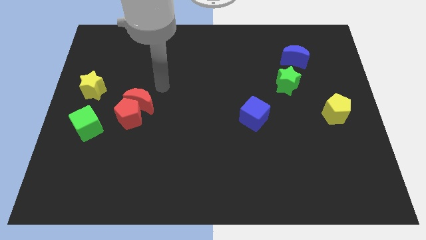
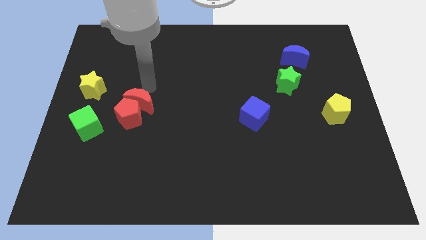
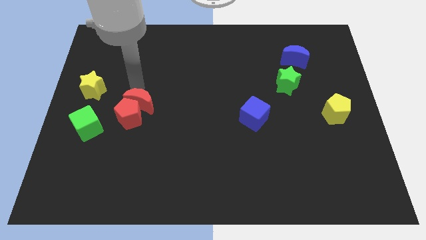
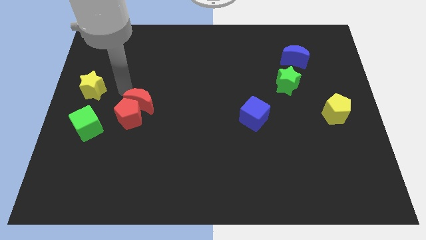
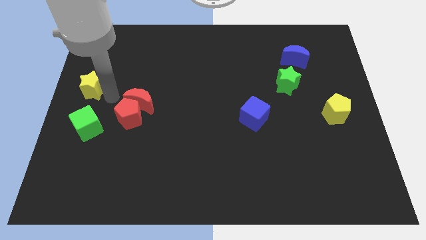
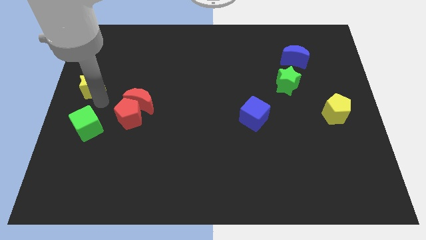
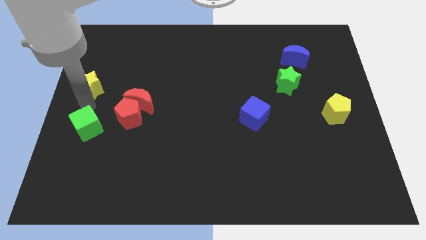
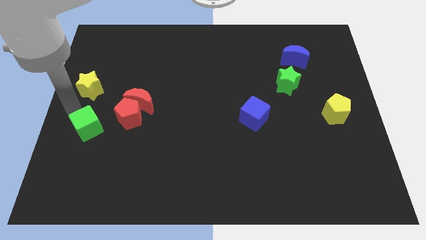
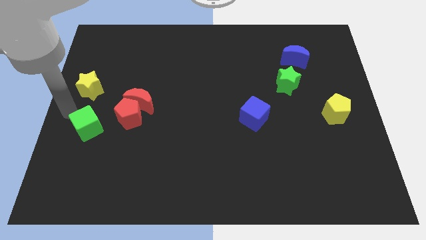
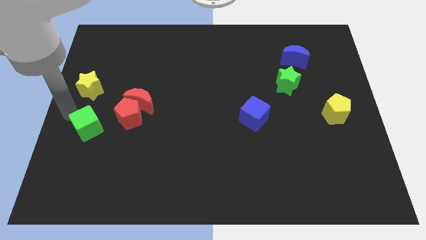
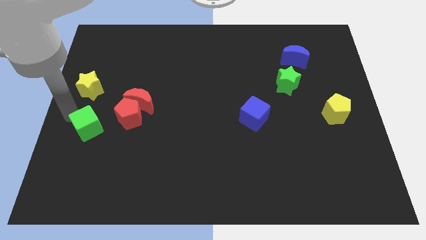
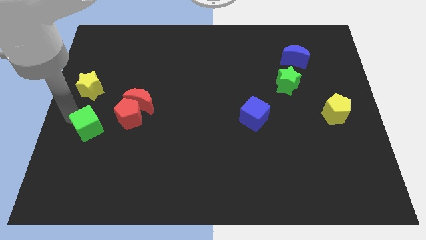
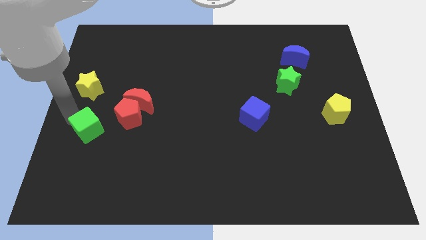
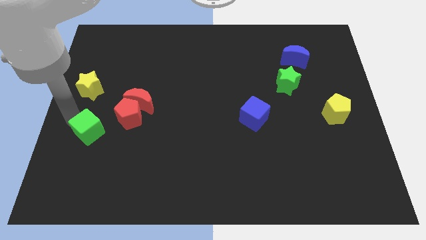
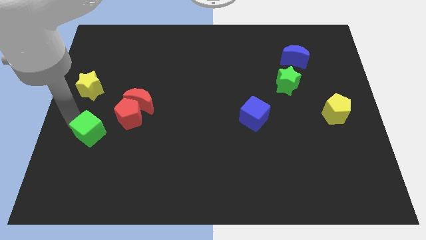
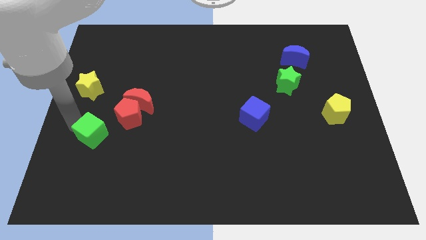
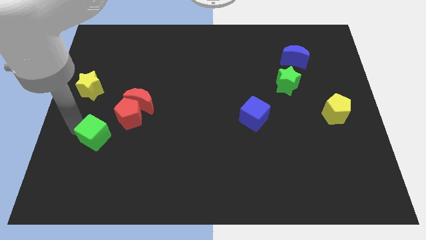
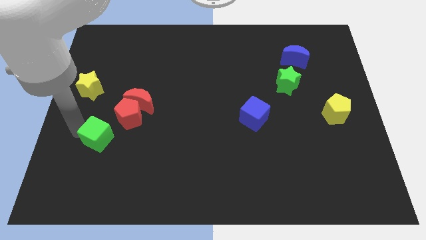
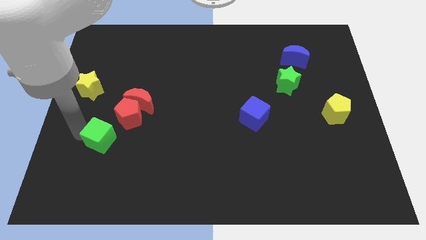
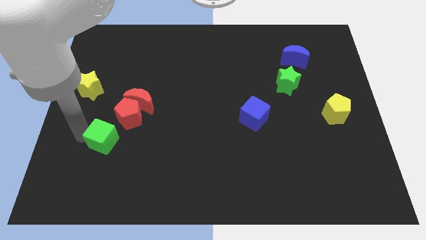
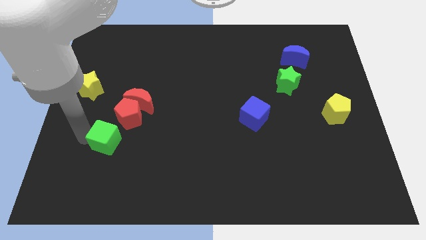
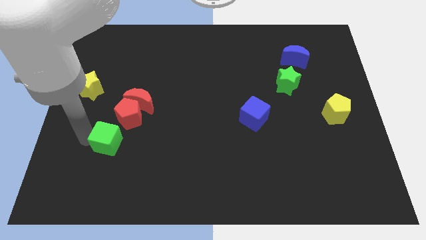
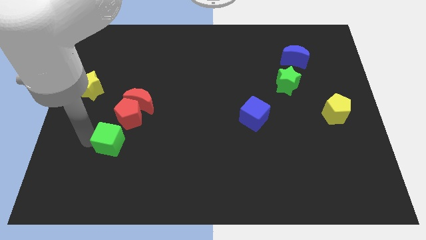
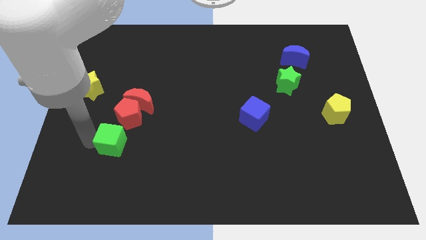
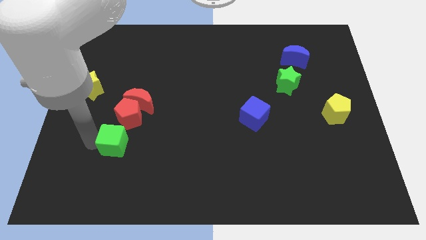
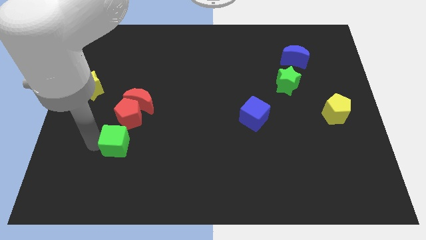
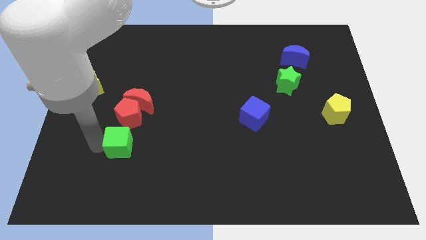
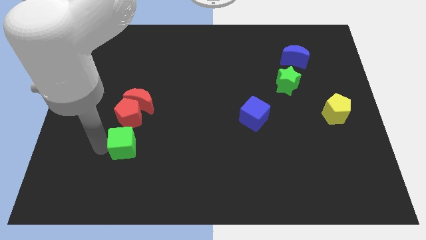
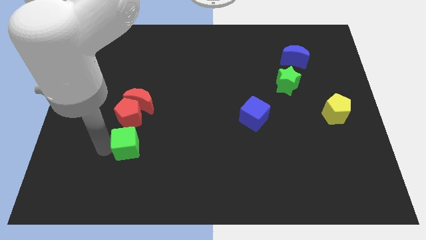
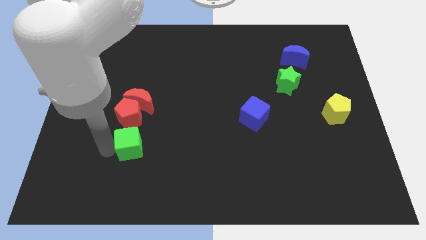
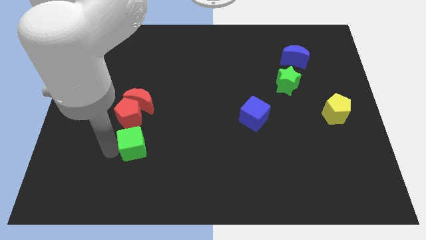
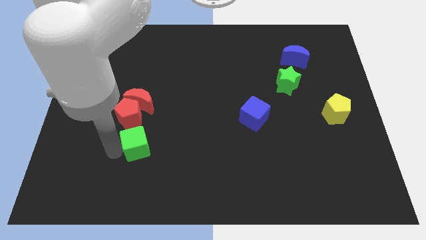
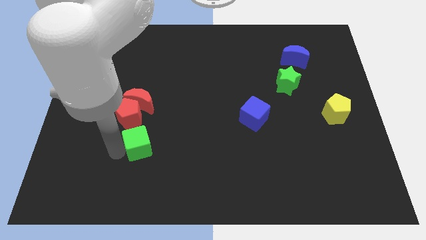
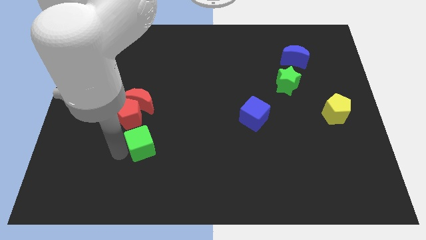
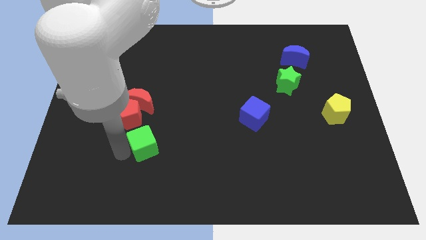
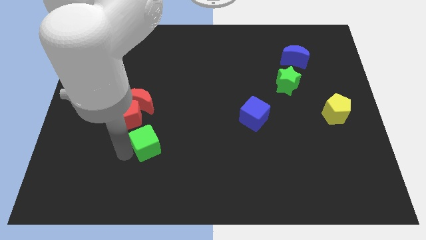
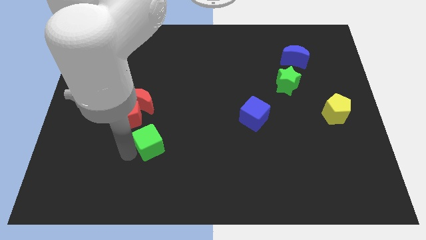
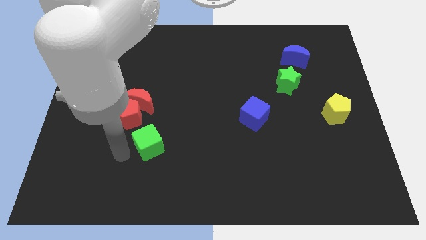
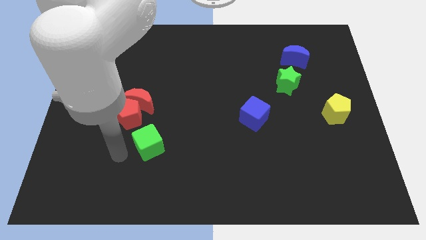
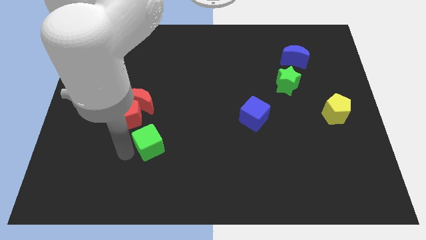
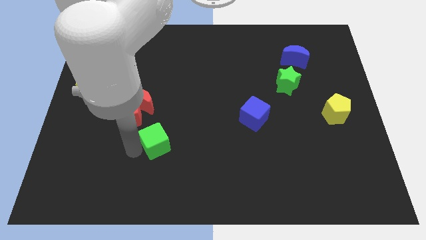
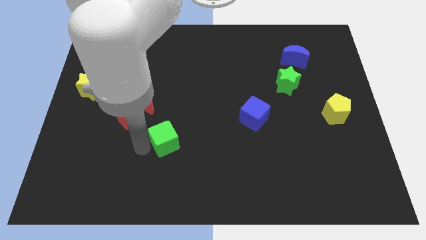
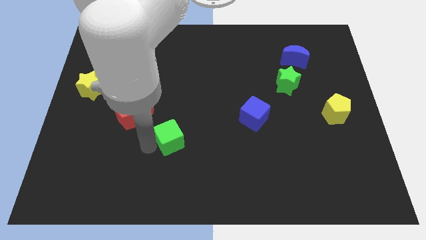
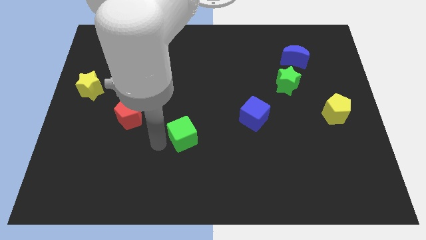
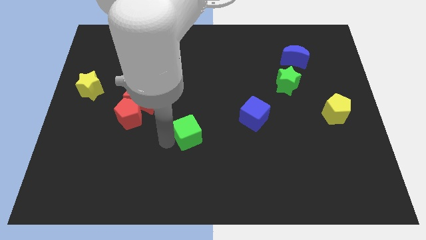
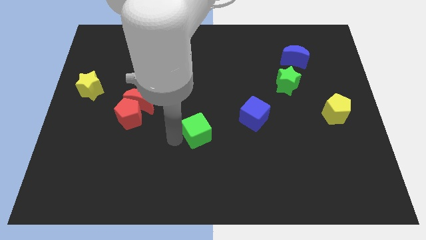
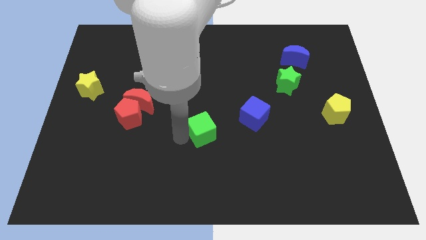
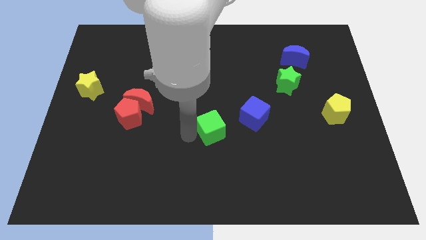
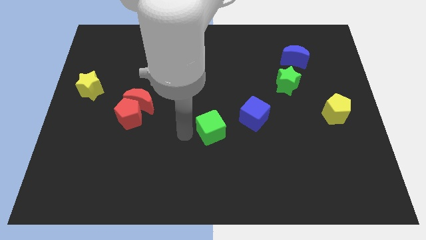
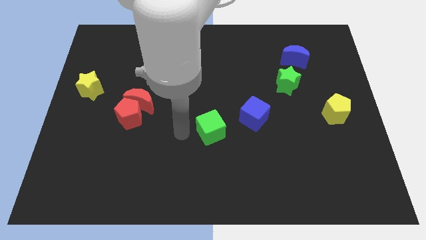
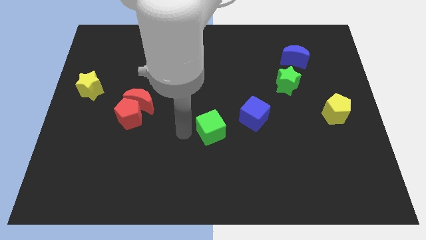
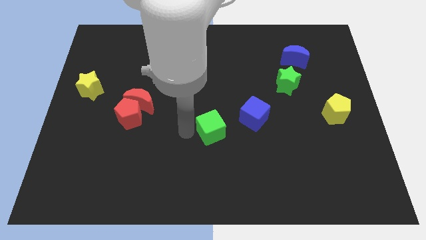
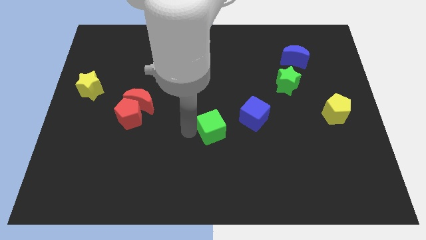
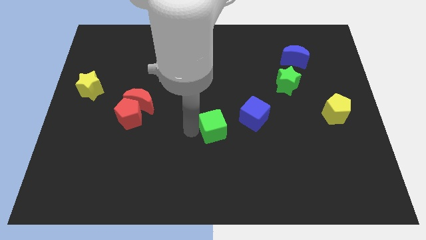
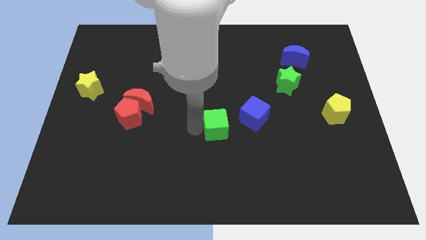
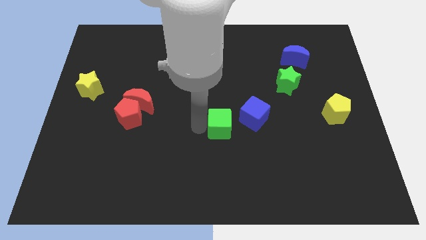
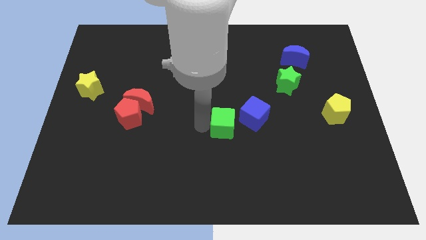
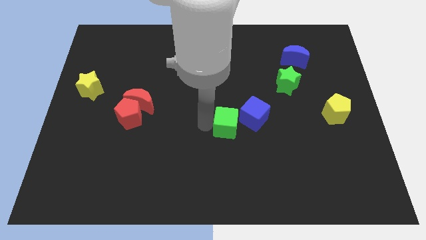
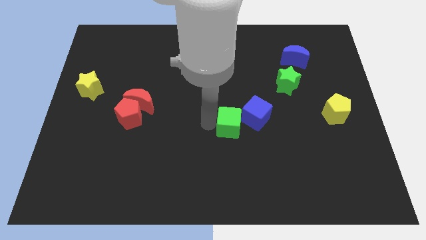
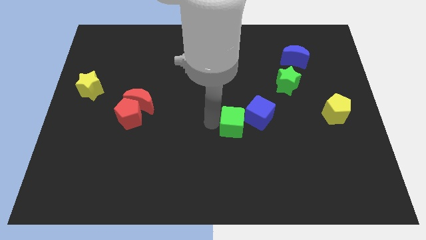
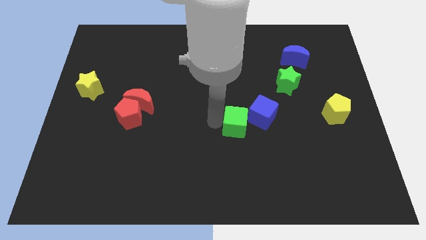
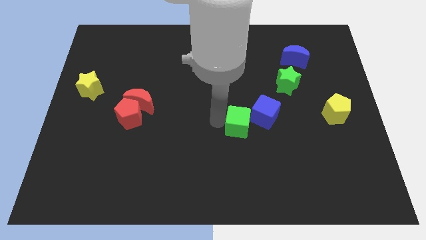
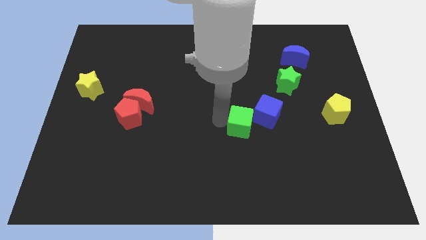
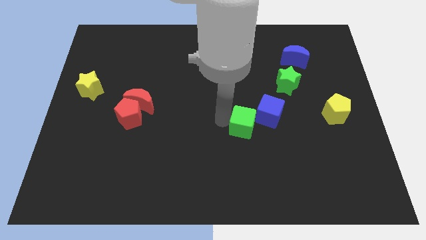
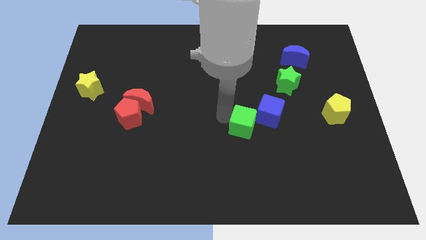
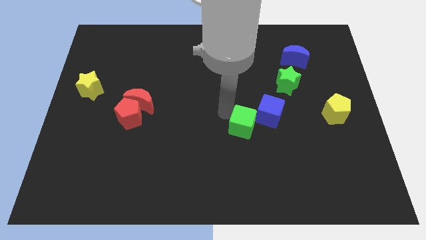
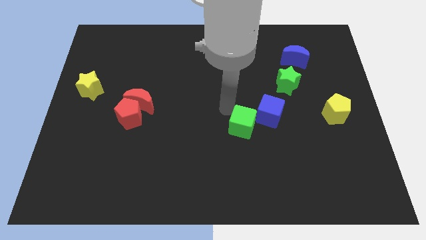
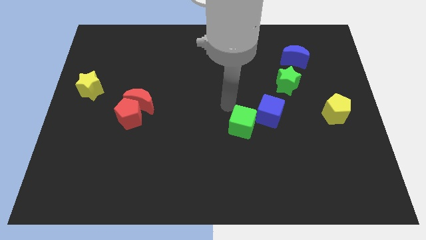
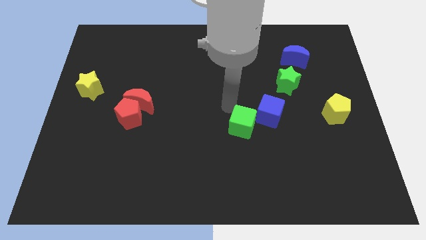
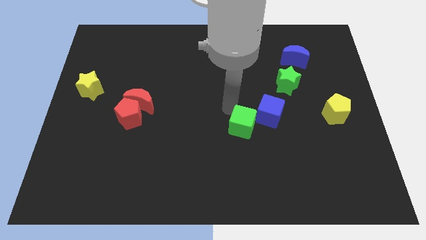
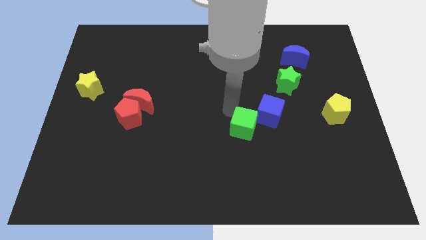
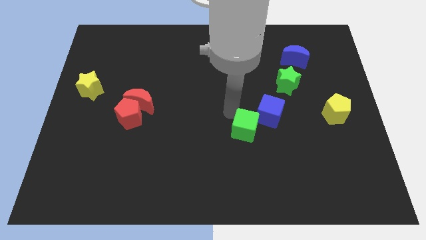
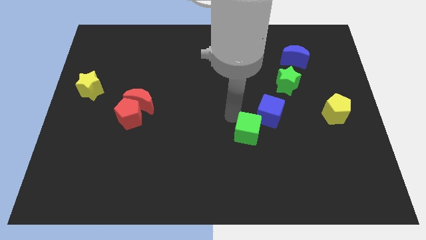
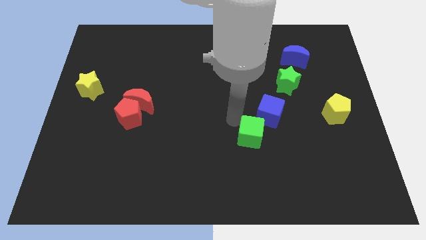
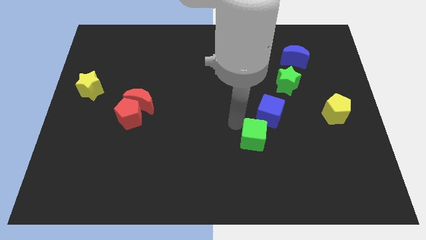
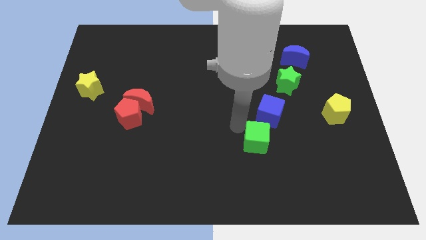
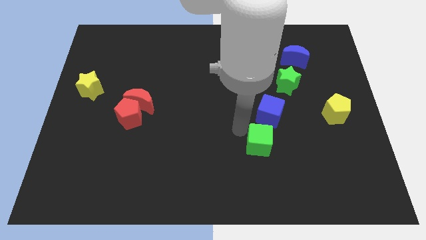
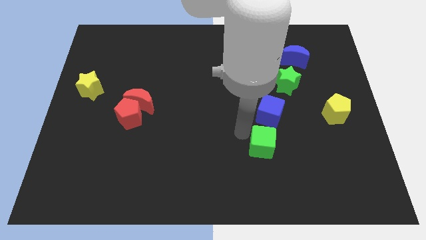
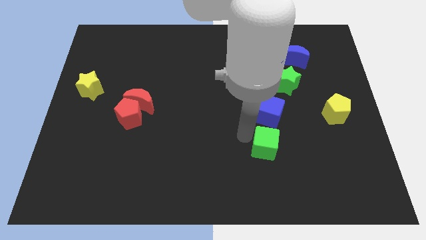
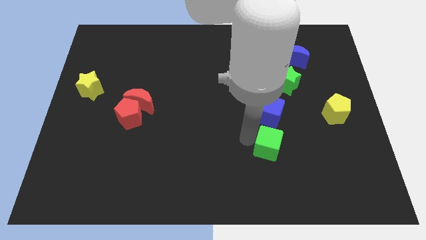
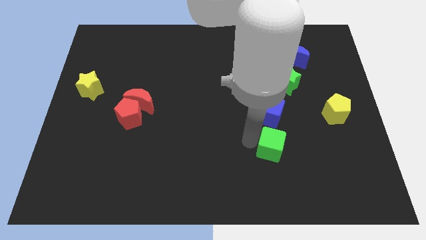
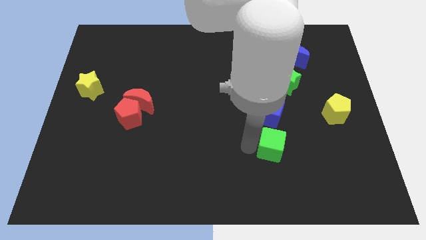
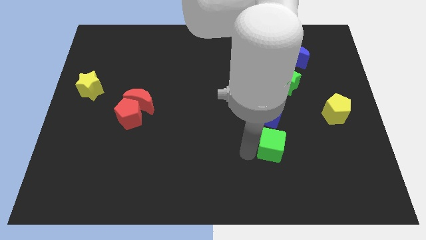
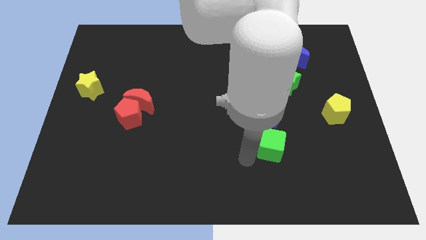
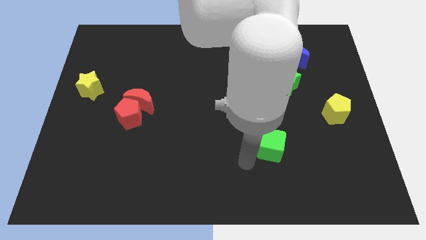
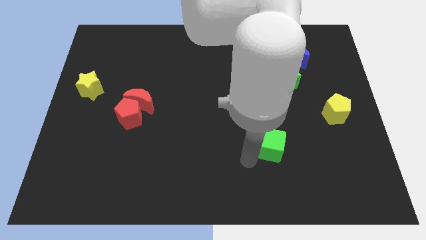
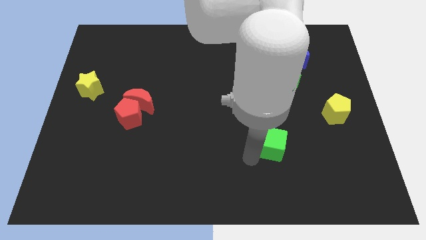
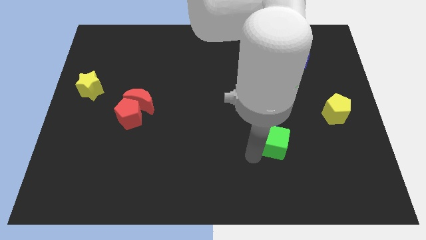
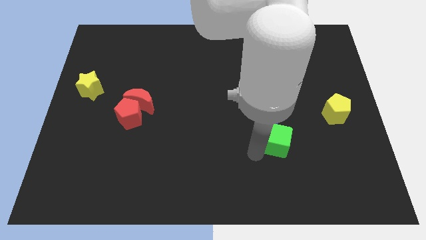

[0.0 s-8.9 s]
move the green cube to the bottom right of the blue cube
